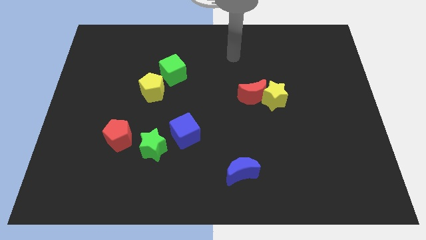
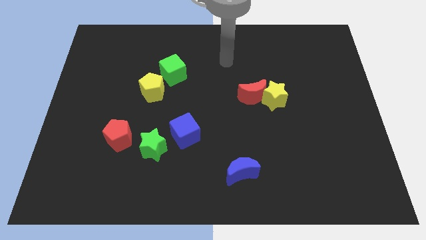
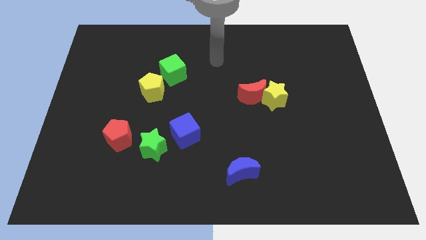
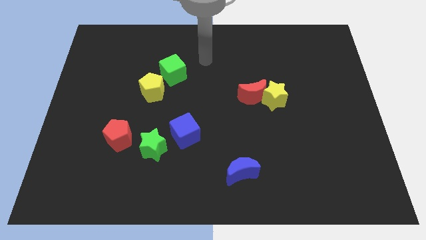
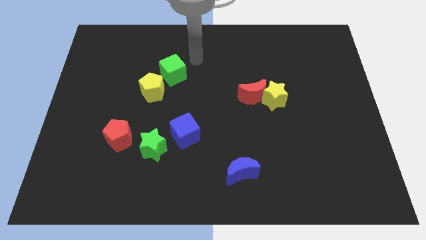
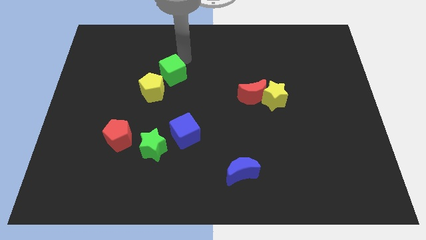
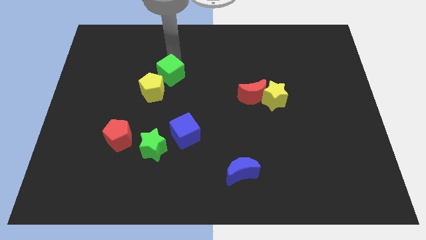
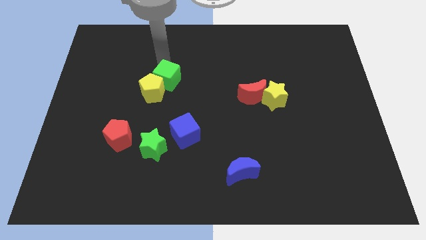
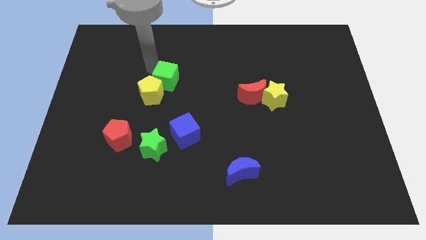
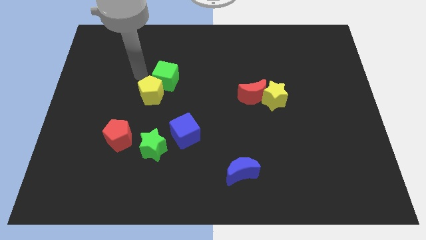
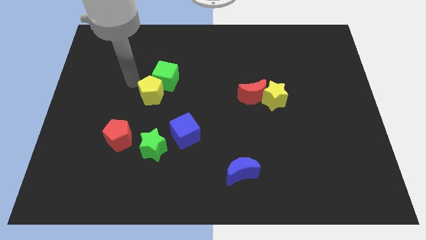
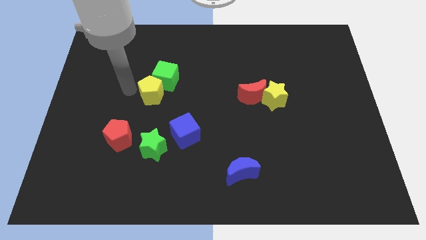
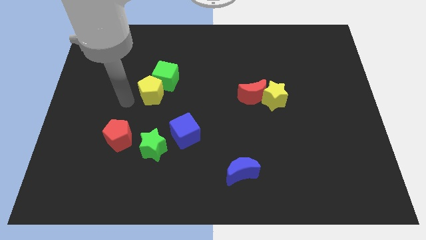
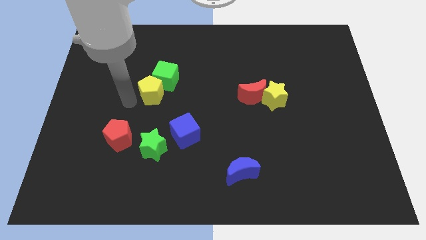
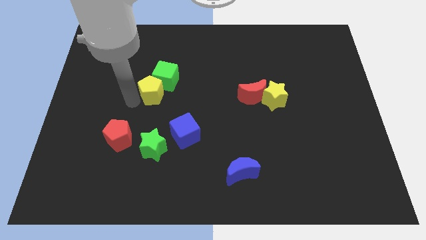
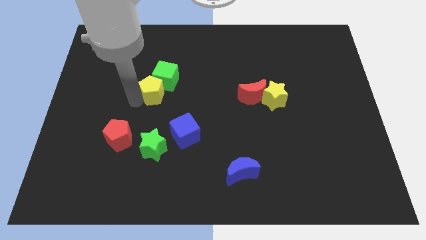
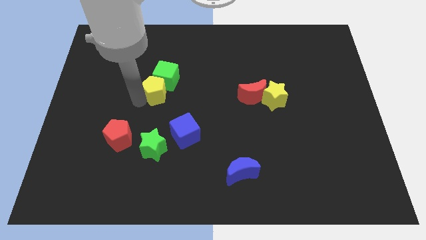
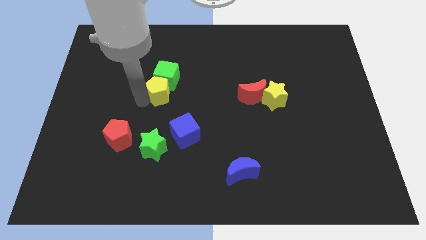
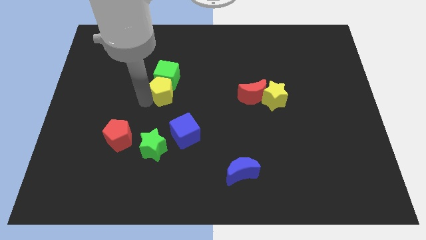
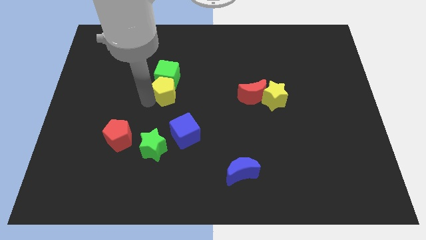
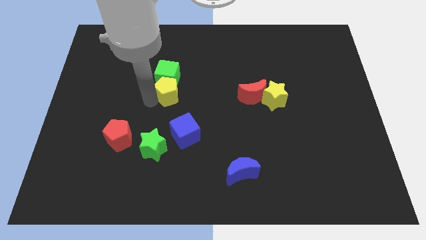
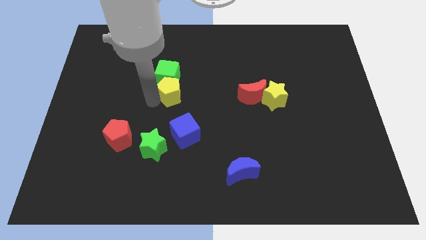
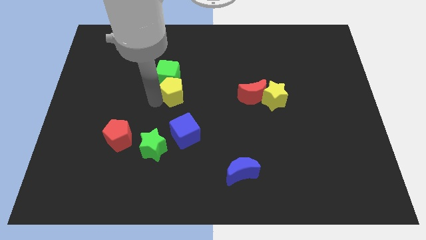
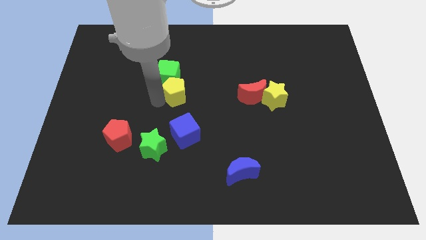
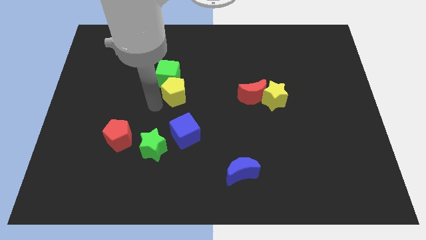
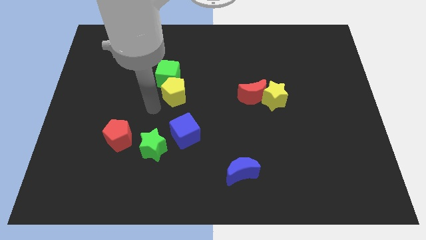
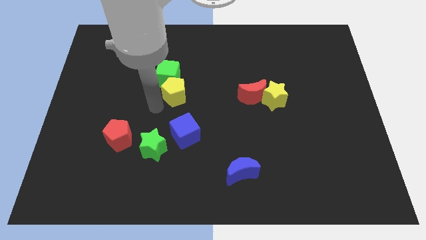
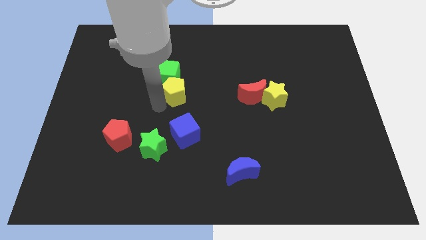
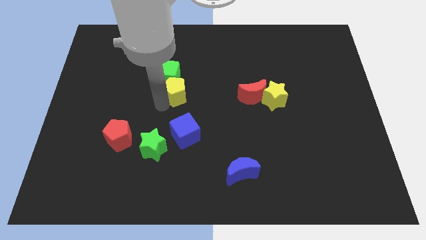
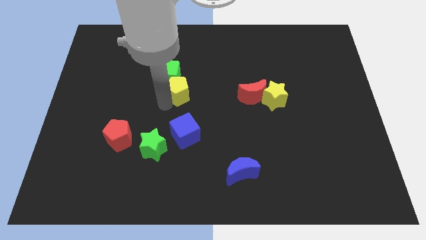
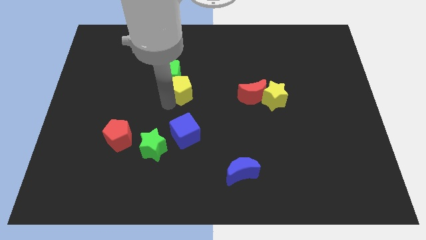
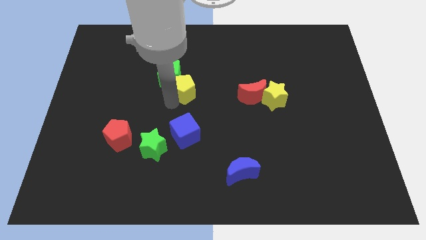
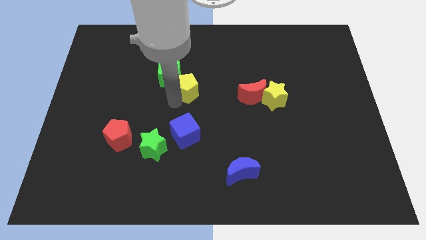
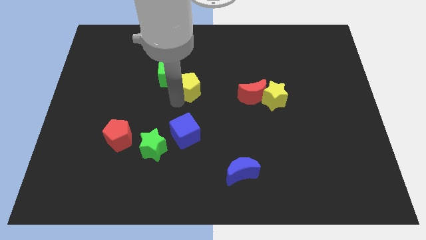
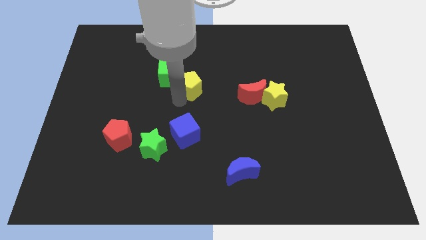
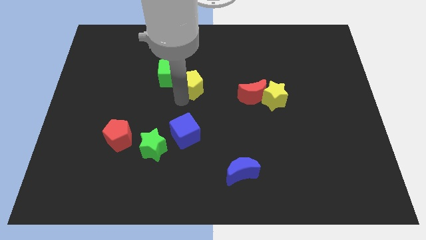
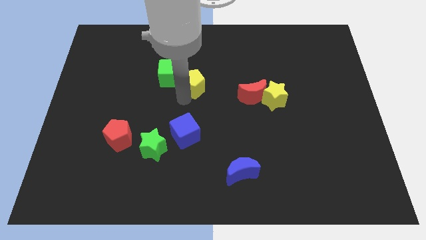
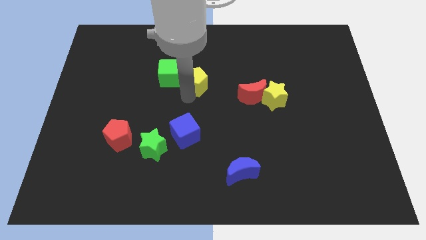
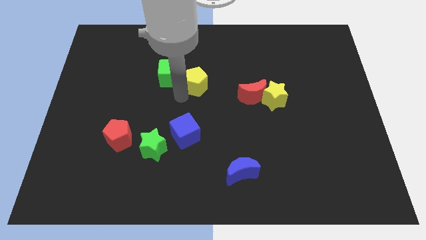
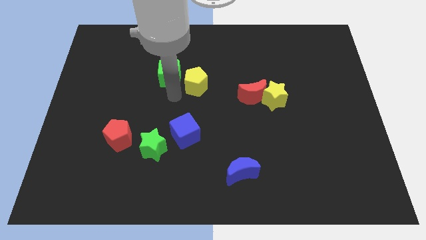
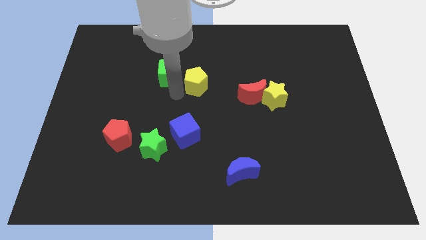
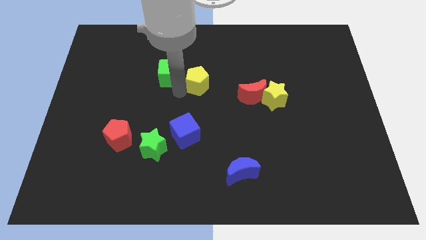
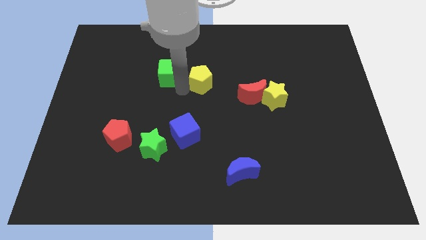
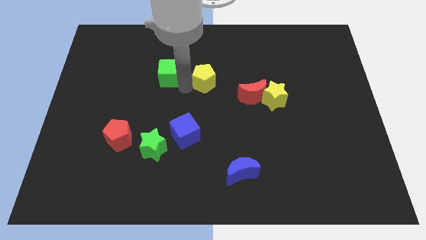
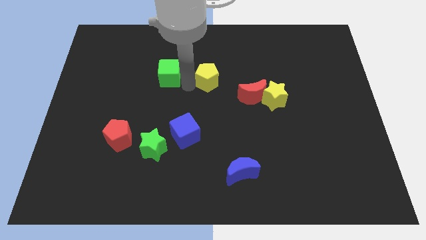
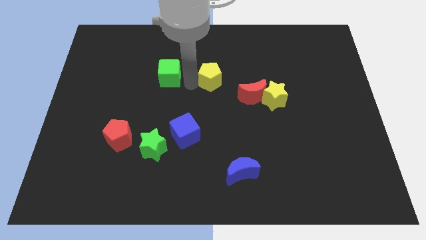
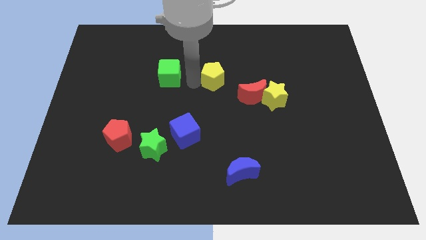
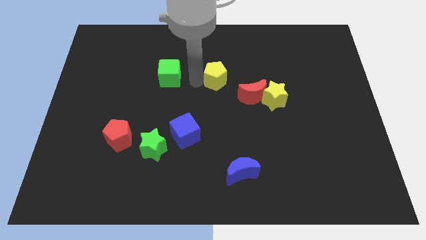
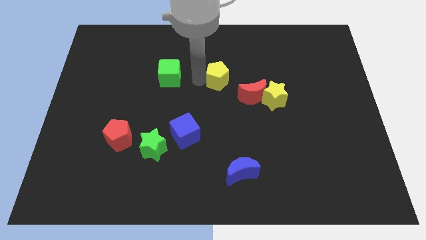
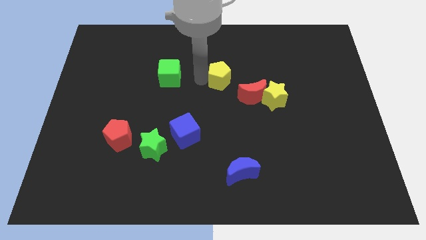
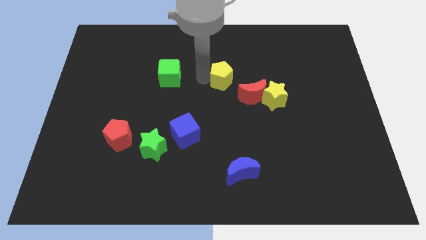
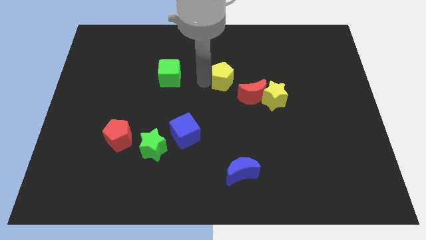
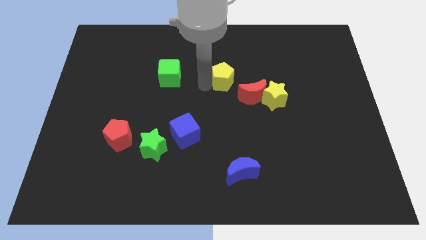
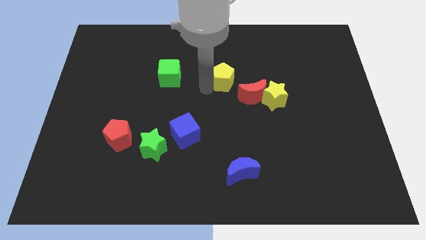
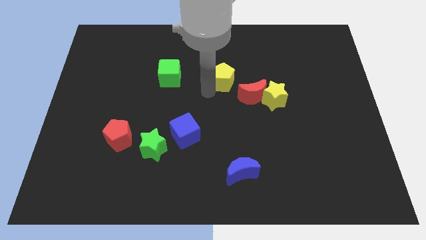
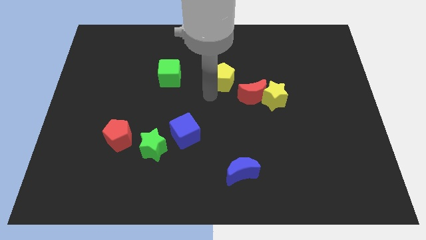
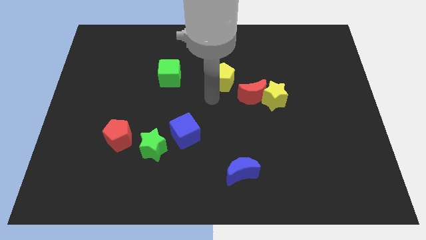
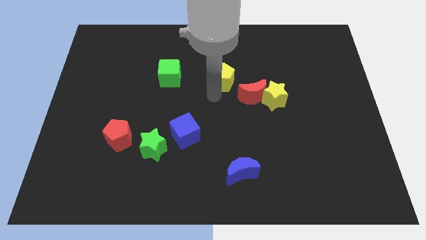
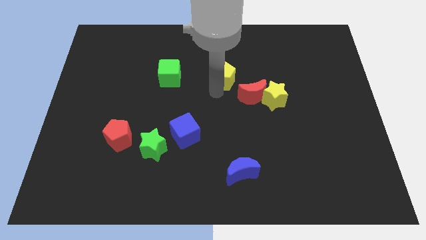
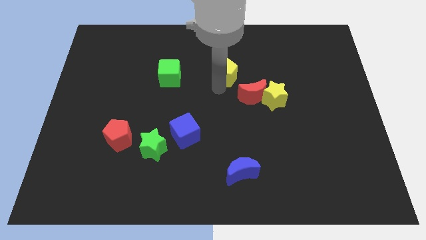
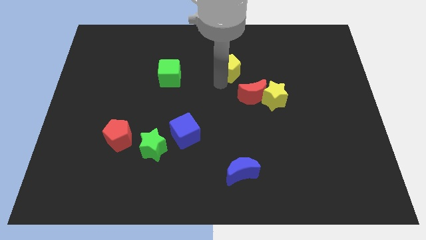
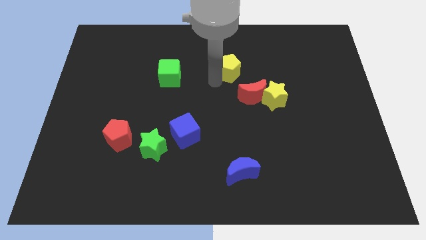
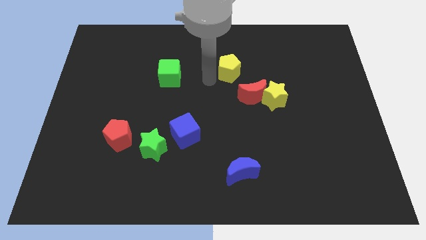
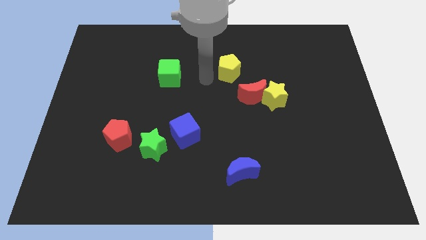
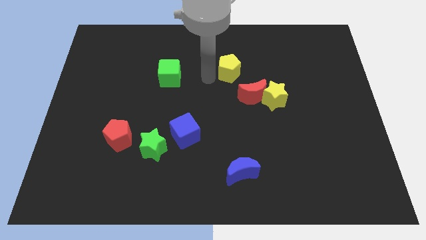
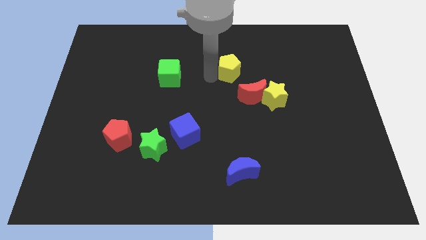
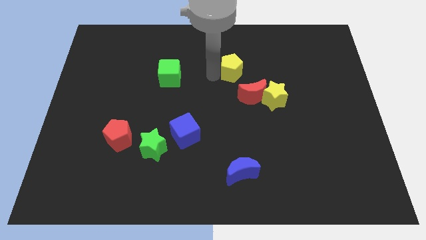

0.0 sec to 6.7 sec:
put the yellow pentagon above the red moon

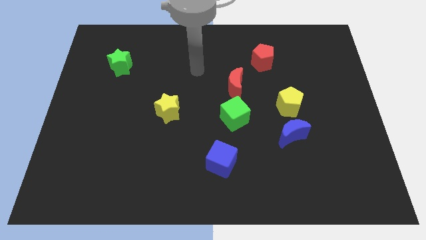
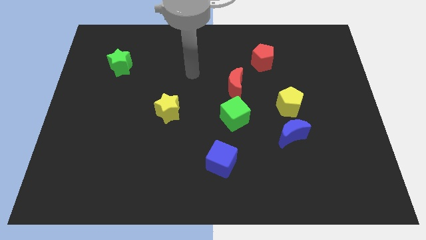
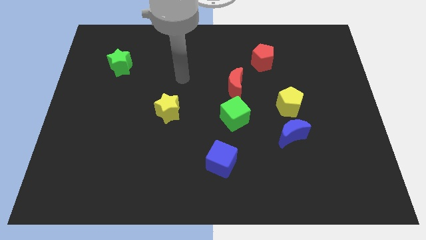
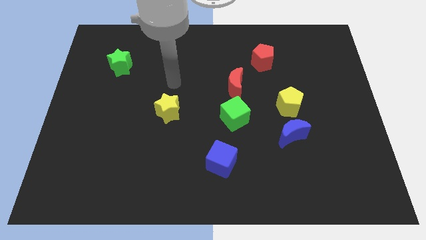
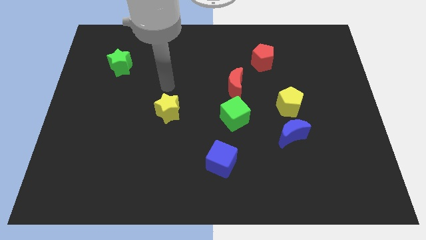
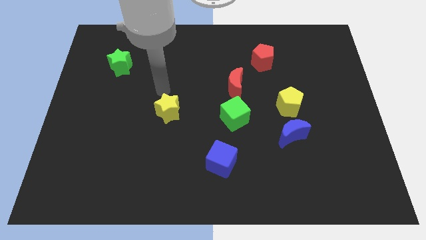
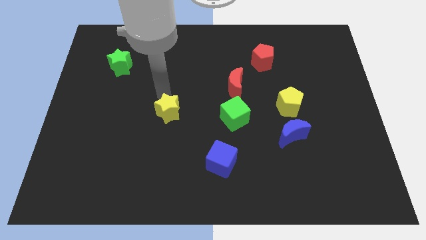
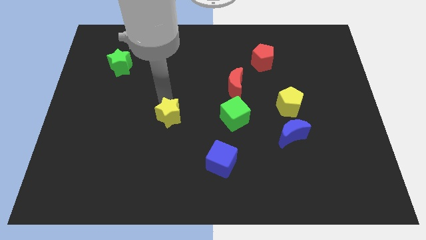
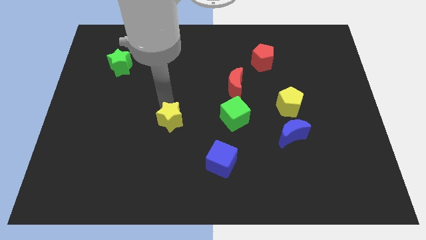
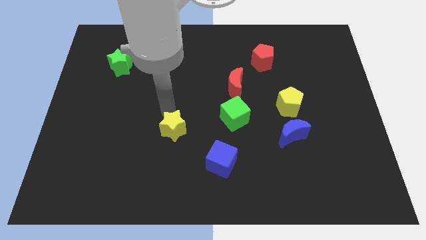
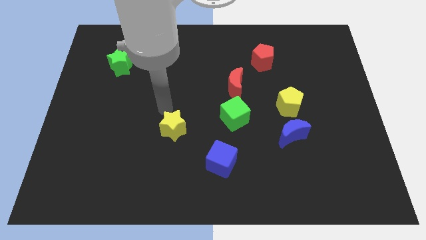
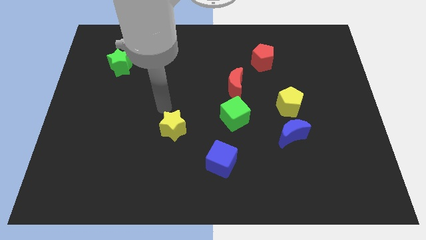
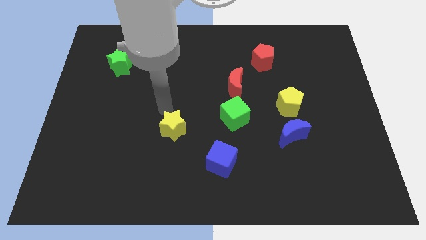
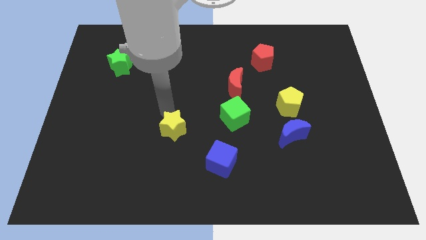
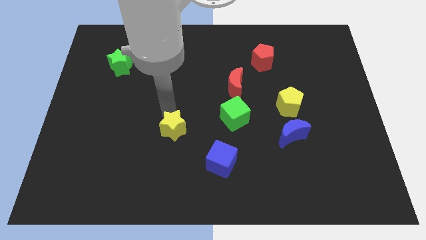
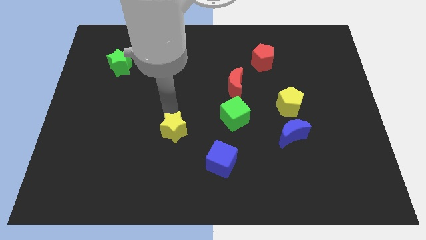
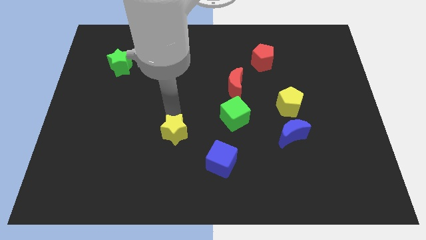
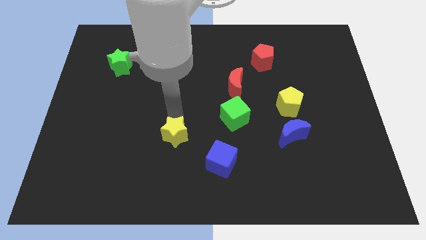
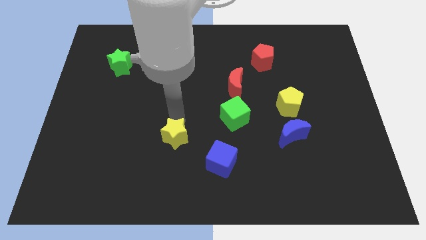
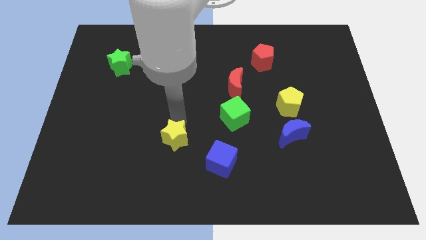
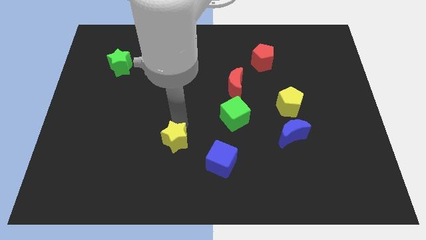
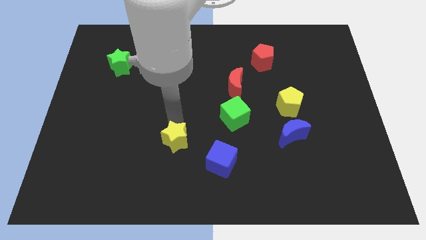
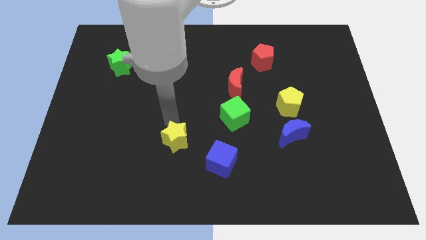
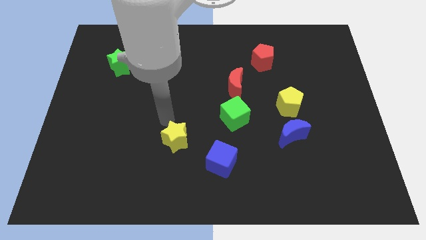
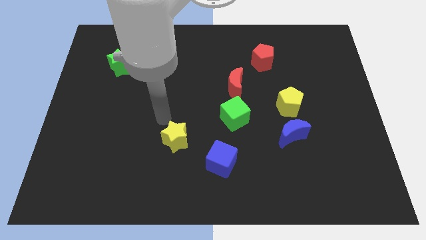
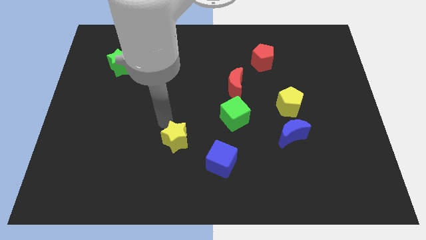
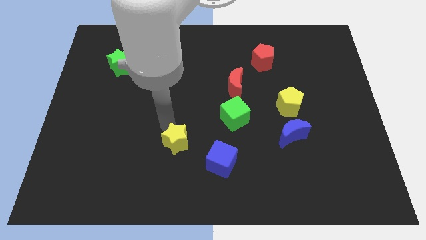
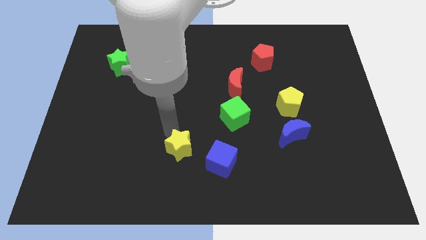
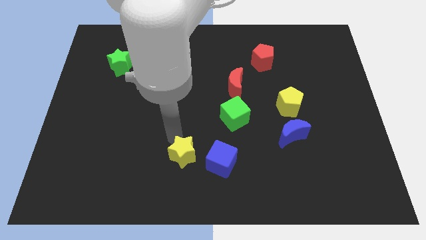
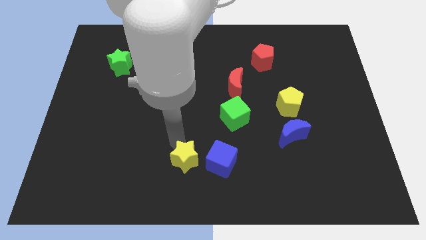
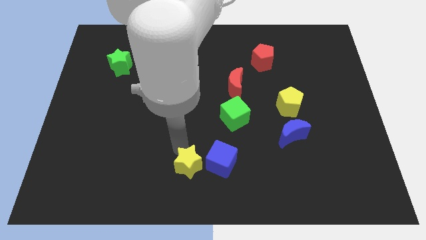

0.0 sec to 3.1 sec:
move the yellow star diagonally down and to the left of the blue cube
